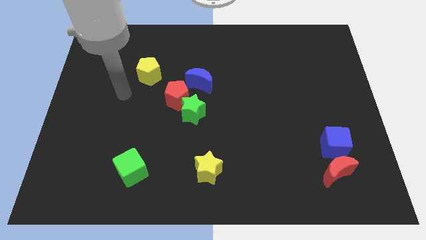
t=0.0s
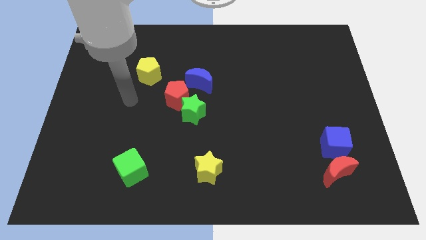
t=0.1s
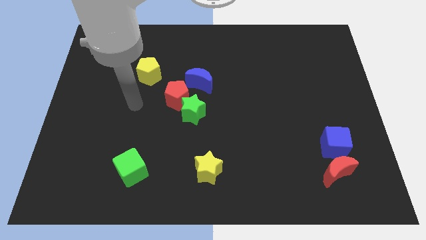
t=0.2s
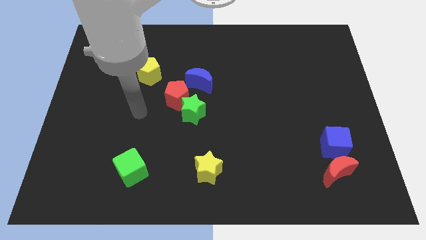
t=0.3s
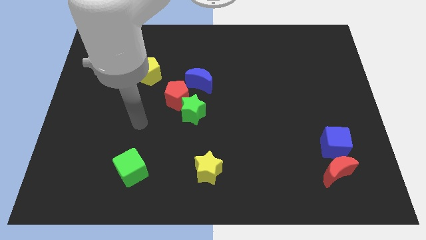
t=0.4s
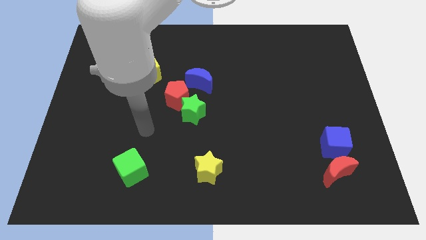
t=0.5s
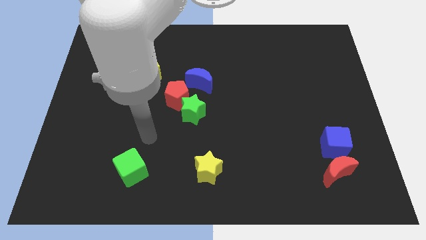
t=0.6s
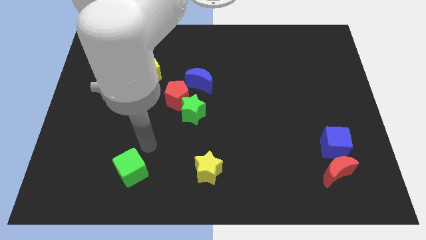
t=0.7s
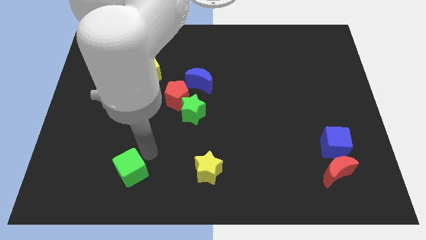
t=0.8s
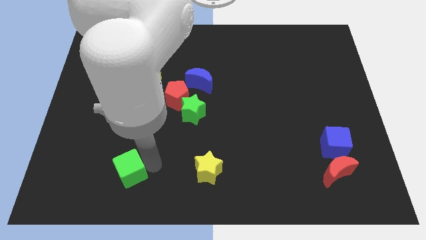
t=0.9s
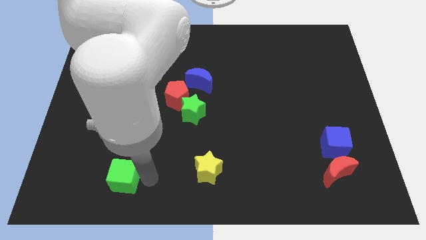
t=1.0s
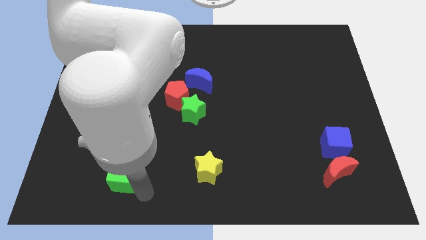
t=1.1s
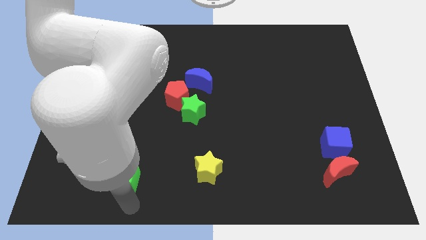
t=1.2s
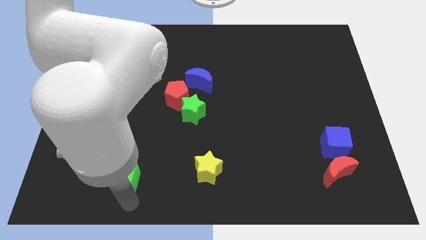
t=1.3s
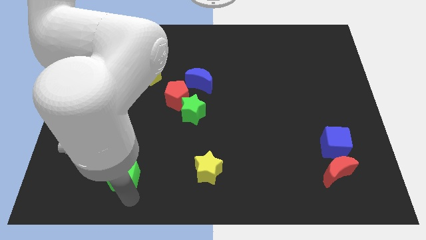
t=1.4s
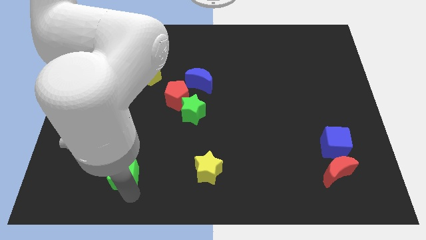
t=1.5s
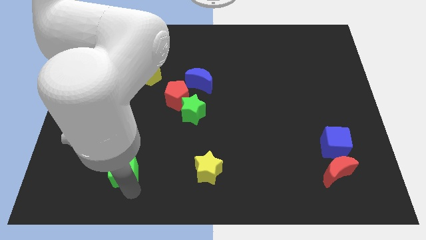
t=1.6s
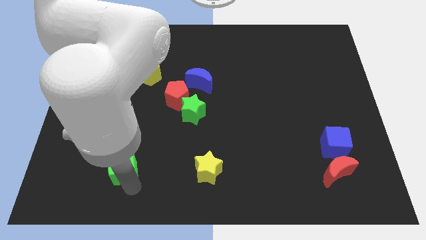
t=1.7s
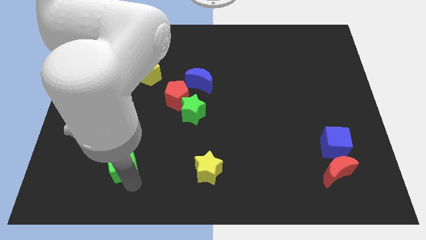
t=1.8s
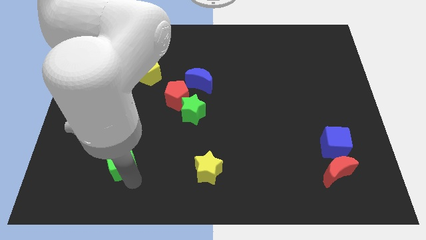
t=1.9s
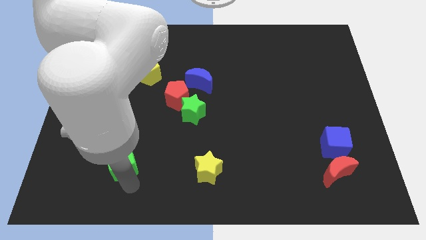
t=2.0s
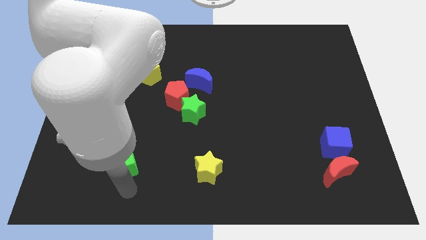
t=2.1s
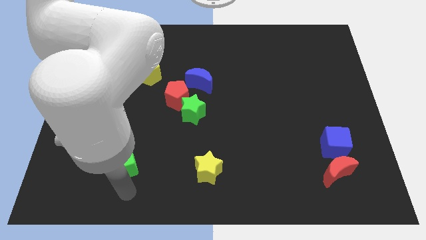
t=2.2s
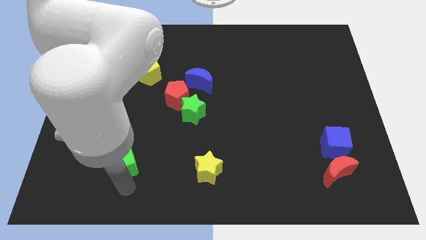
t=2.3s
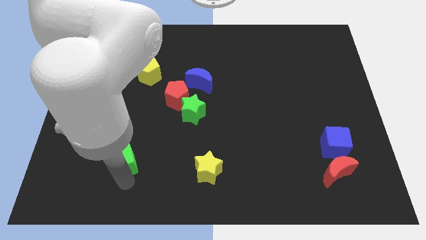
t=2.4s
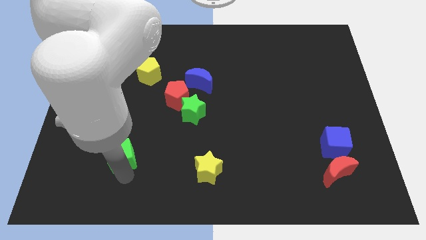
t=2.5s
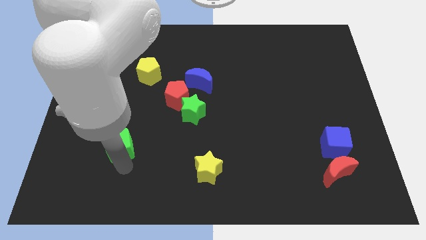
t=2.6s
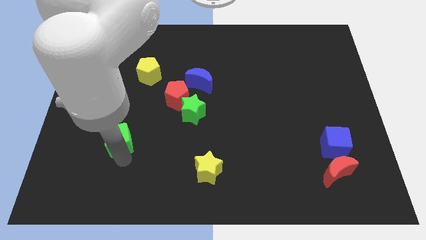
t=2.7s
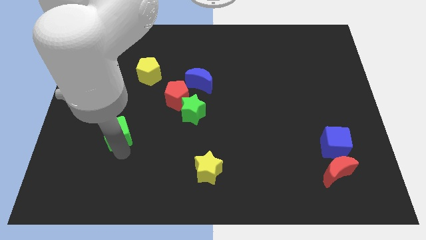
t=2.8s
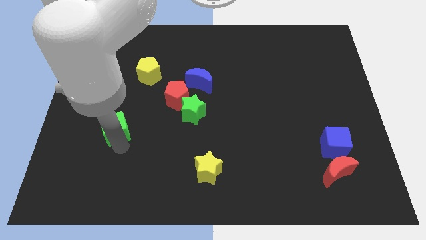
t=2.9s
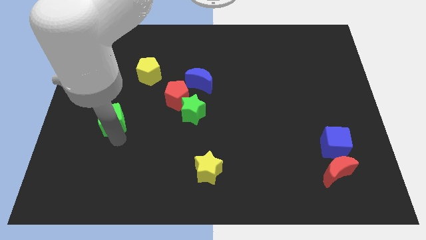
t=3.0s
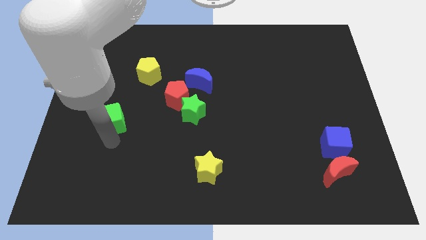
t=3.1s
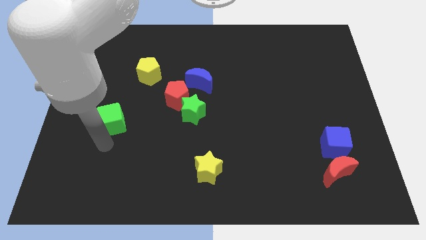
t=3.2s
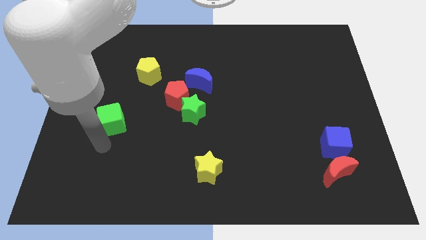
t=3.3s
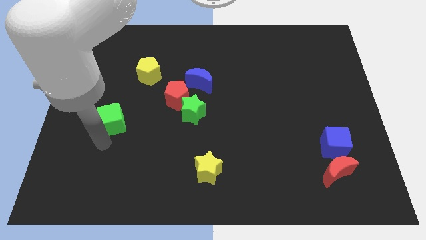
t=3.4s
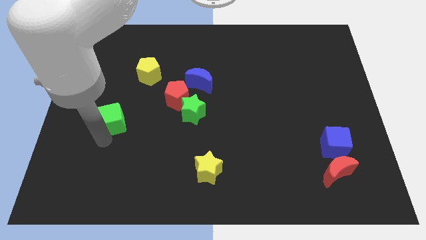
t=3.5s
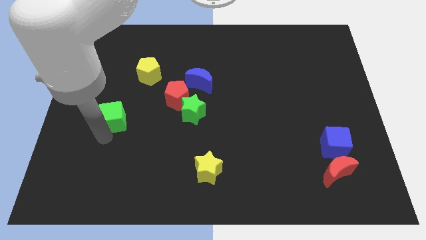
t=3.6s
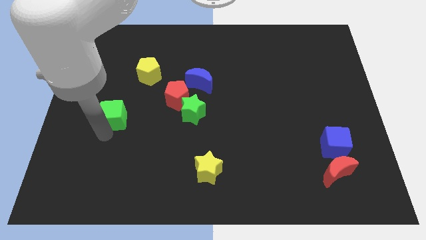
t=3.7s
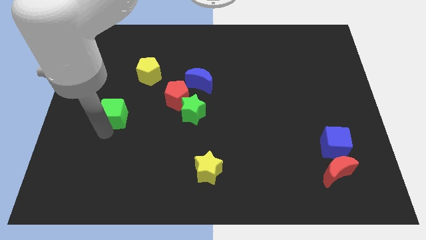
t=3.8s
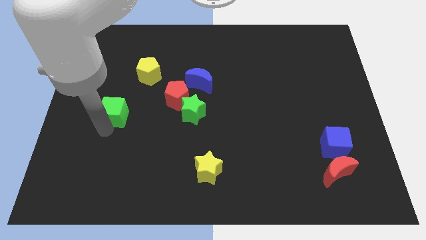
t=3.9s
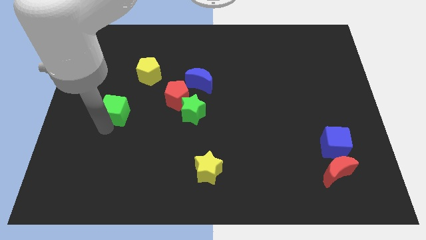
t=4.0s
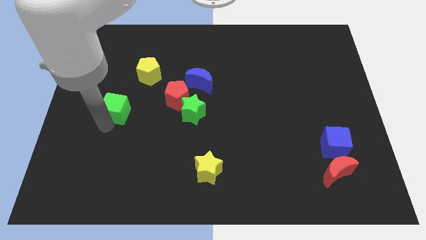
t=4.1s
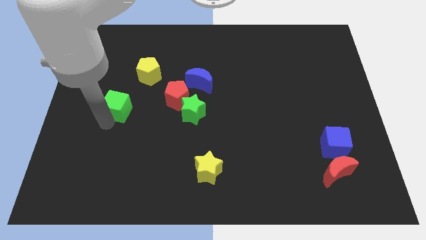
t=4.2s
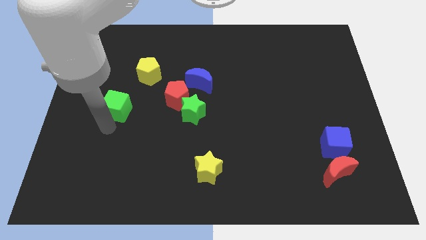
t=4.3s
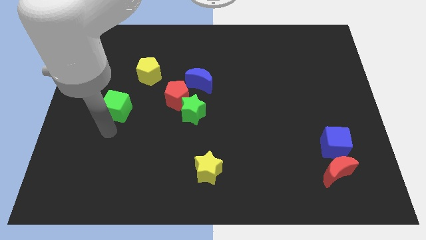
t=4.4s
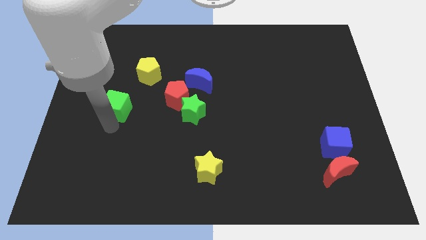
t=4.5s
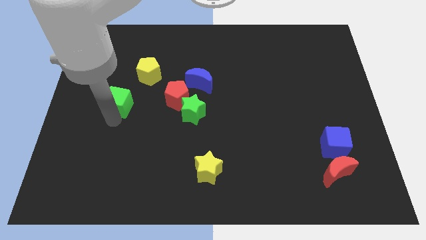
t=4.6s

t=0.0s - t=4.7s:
put the green cube to the bottom left side of the yellow pentagon

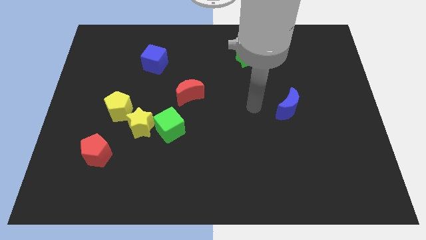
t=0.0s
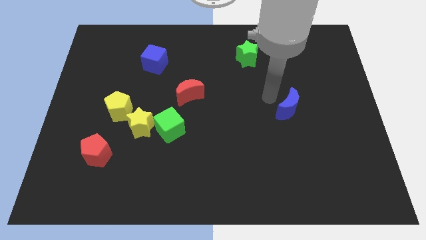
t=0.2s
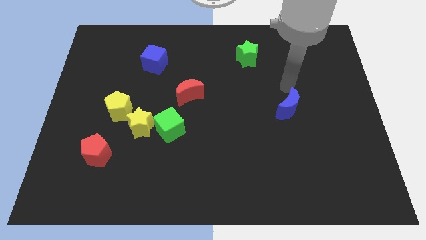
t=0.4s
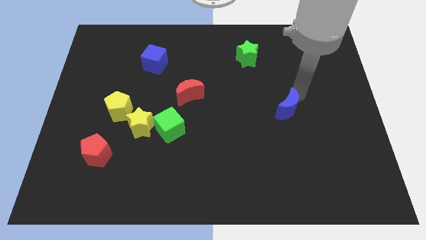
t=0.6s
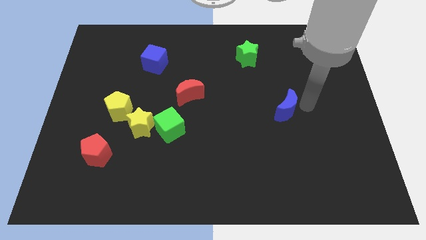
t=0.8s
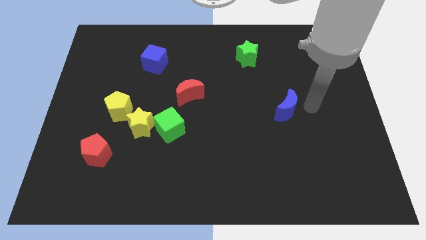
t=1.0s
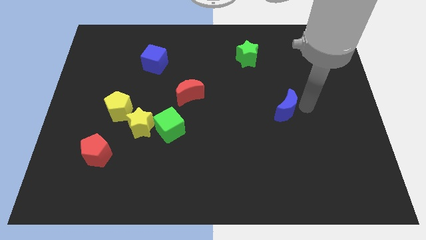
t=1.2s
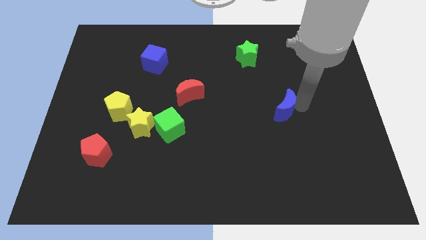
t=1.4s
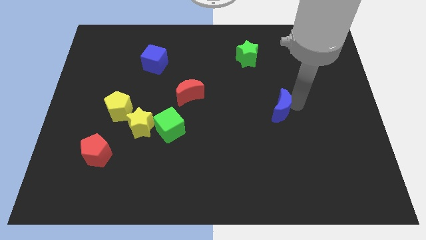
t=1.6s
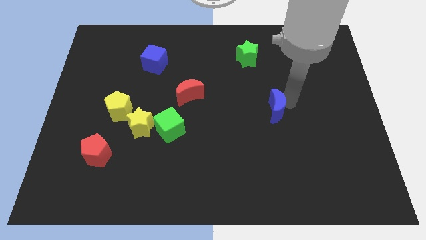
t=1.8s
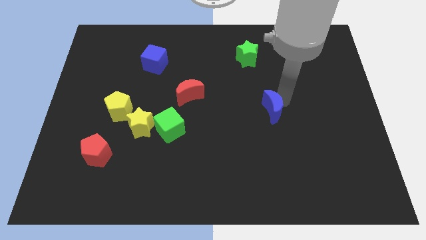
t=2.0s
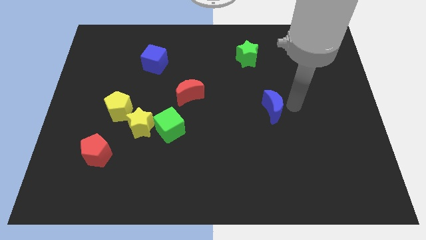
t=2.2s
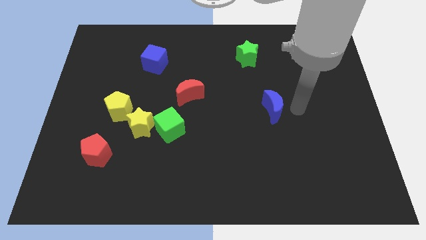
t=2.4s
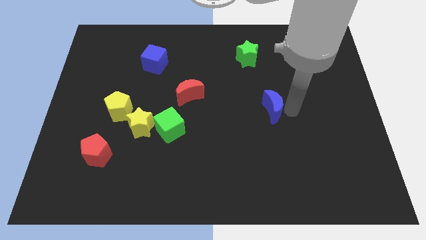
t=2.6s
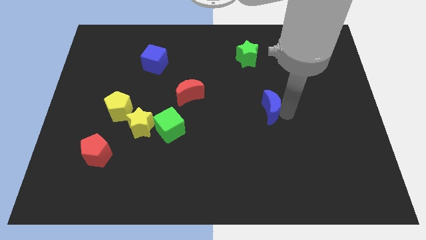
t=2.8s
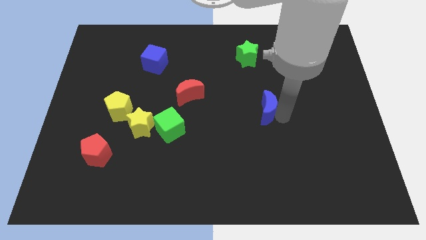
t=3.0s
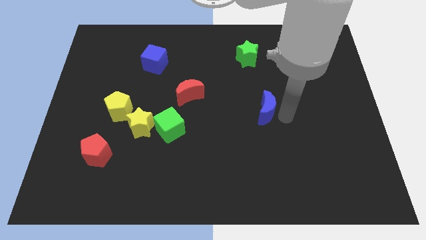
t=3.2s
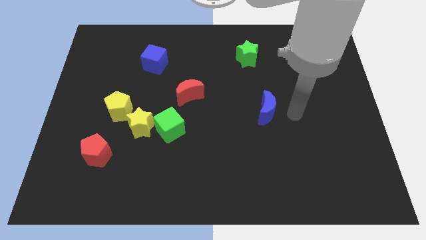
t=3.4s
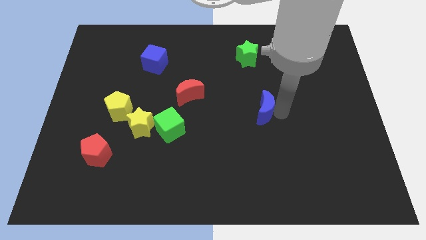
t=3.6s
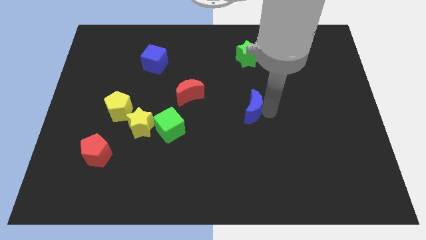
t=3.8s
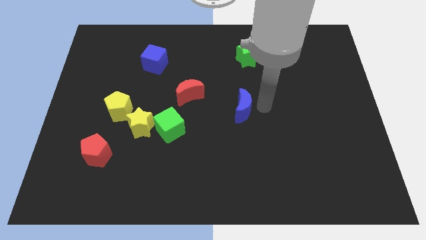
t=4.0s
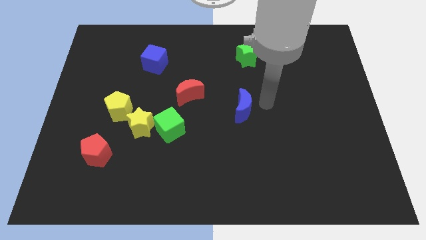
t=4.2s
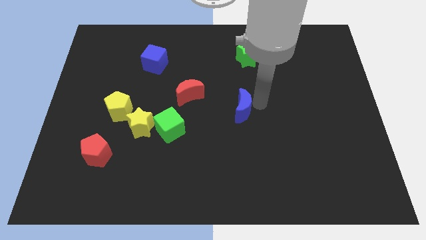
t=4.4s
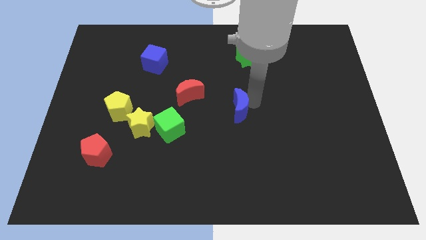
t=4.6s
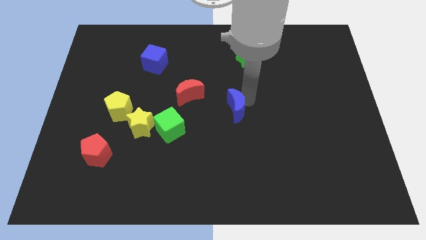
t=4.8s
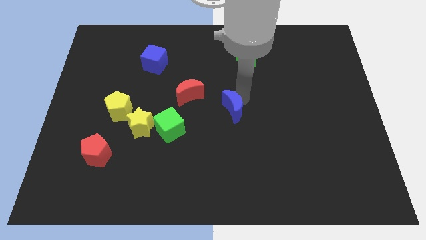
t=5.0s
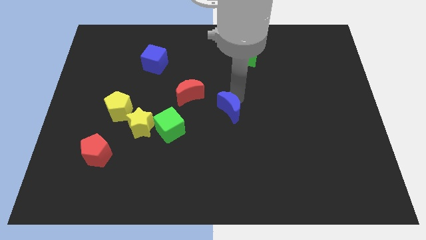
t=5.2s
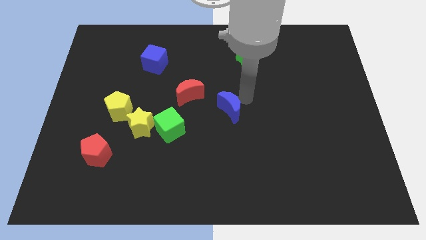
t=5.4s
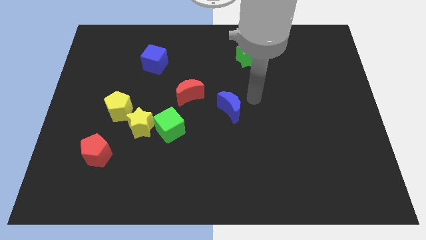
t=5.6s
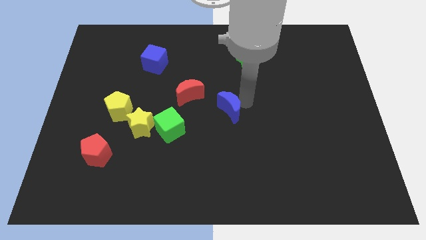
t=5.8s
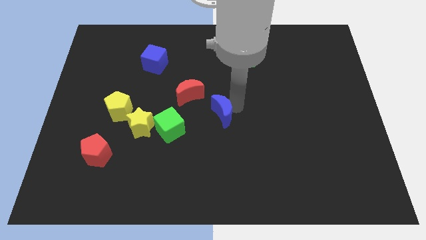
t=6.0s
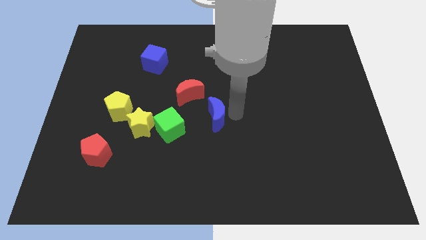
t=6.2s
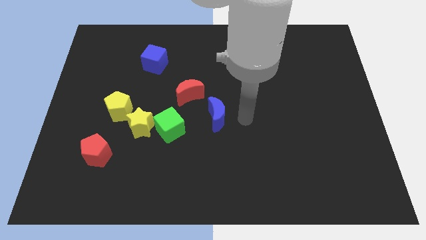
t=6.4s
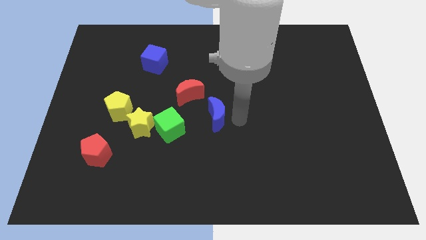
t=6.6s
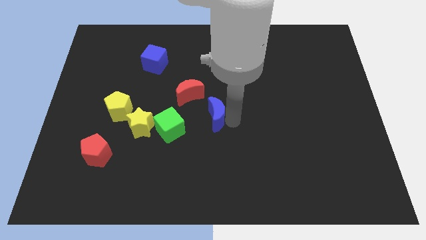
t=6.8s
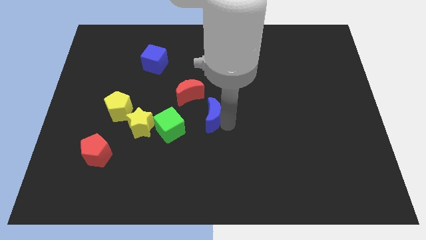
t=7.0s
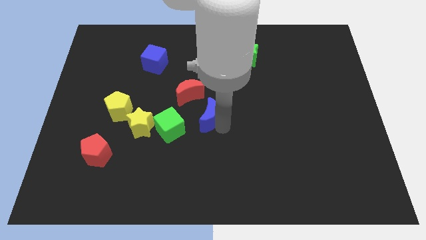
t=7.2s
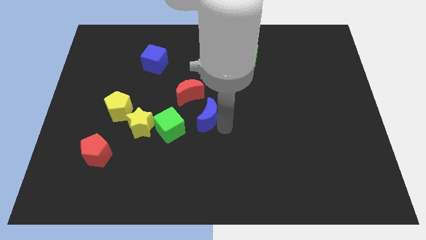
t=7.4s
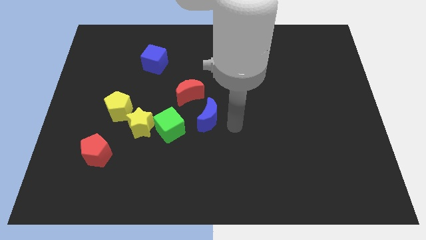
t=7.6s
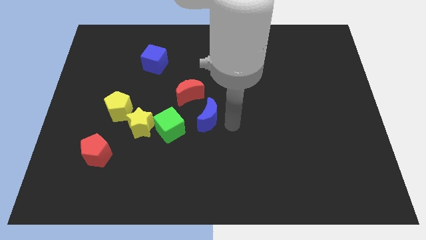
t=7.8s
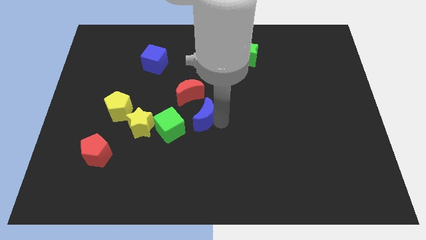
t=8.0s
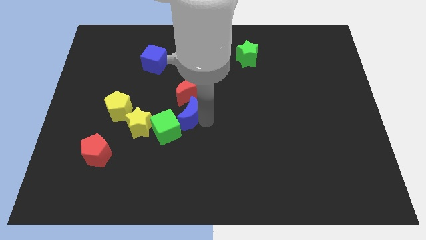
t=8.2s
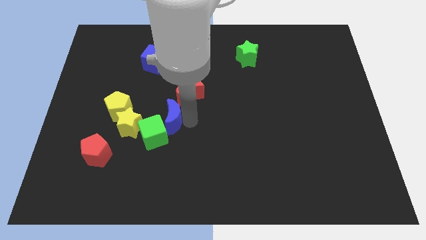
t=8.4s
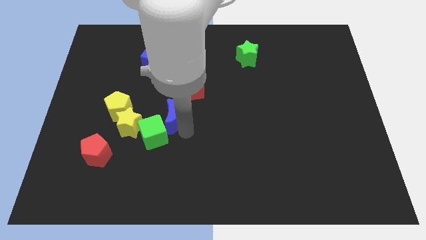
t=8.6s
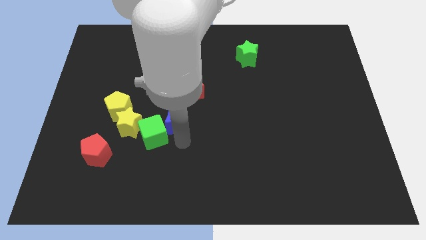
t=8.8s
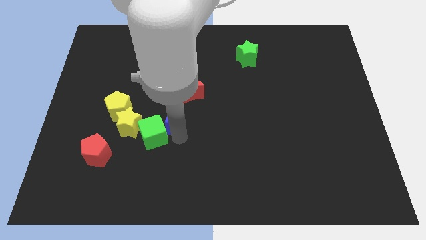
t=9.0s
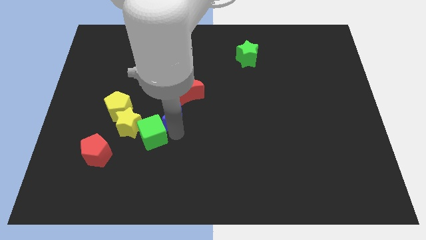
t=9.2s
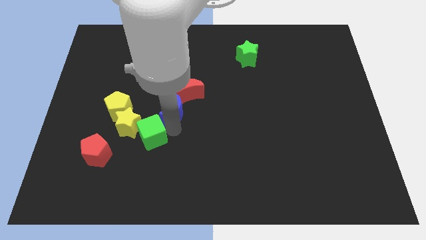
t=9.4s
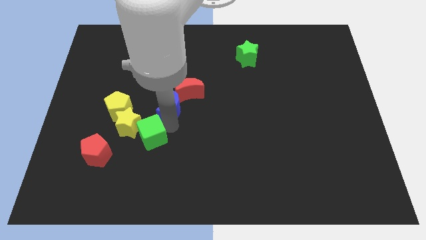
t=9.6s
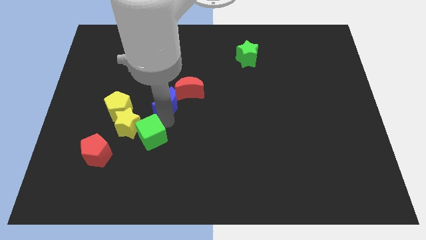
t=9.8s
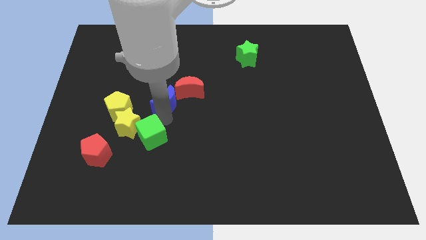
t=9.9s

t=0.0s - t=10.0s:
slide the blue moon to the bottom of the blue cube
